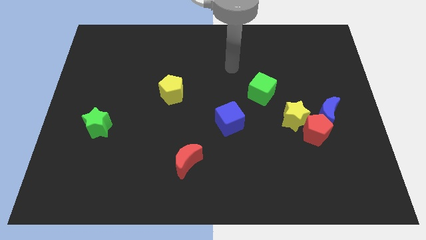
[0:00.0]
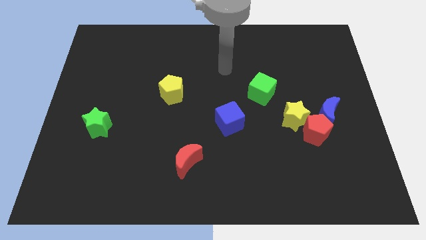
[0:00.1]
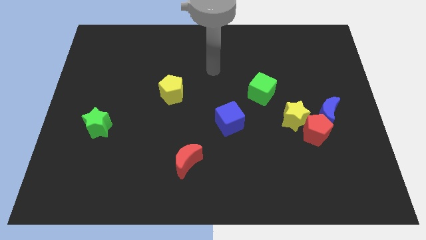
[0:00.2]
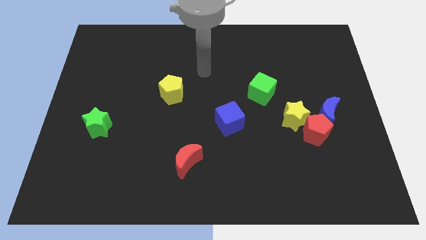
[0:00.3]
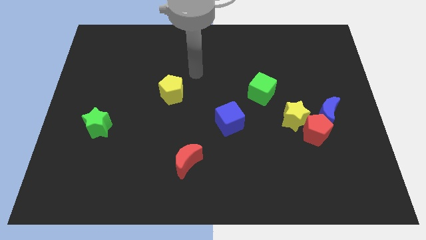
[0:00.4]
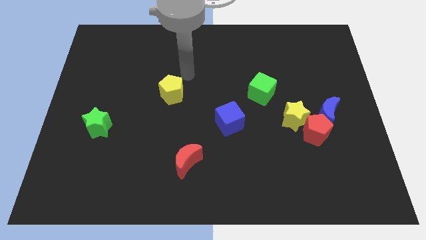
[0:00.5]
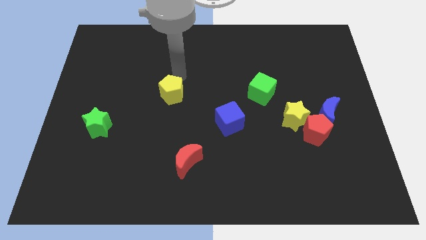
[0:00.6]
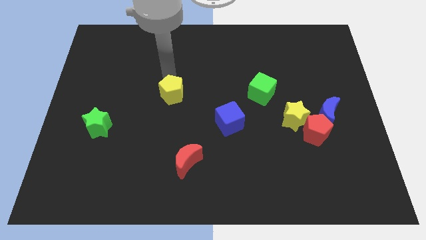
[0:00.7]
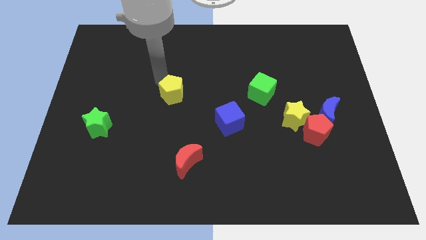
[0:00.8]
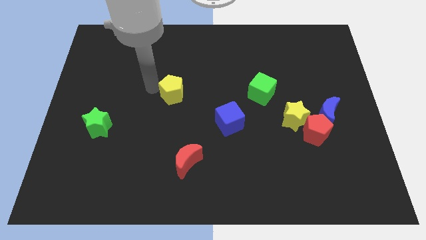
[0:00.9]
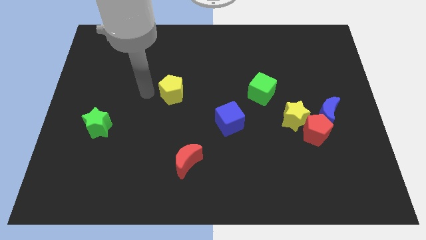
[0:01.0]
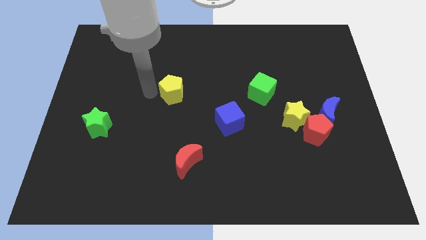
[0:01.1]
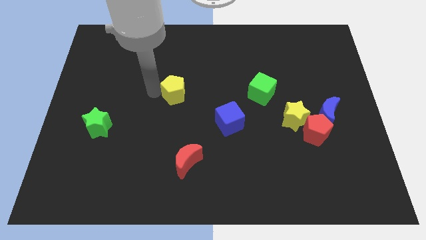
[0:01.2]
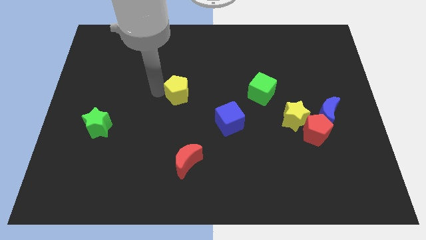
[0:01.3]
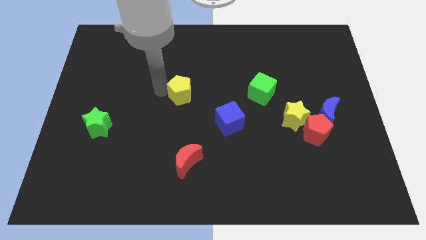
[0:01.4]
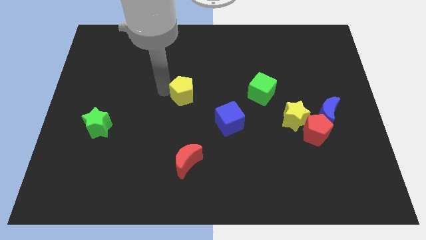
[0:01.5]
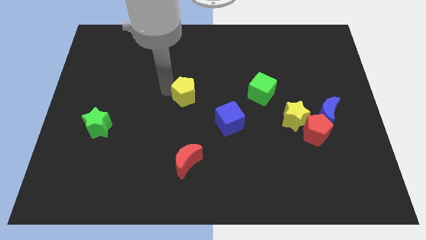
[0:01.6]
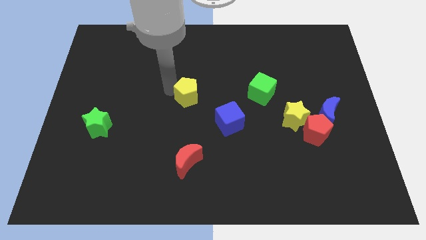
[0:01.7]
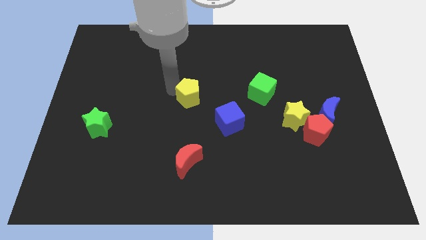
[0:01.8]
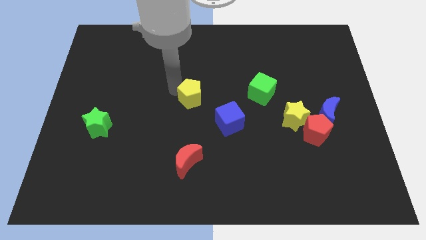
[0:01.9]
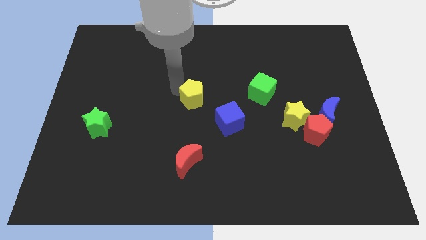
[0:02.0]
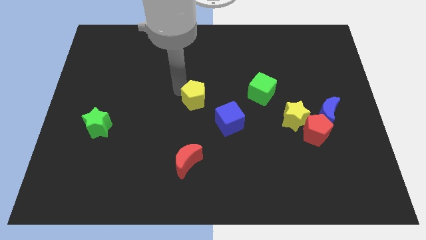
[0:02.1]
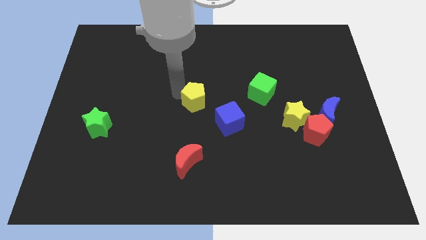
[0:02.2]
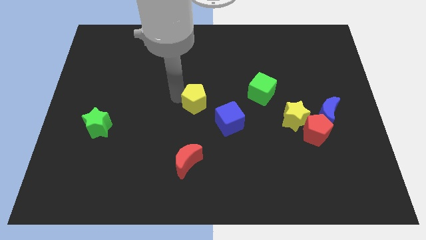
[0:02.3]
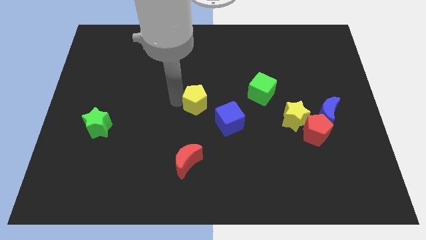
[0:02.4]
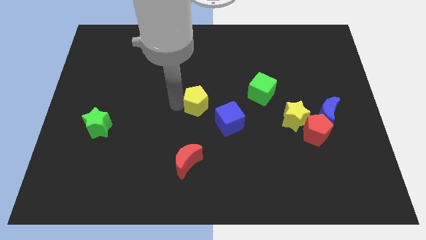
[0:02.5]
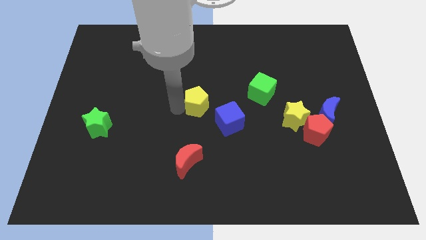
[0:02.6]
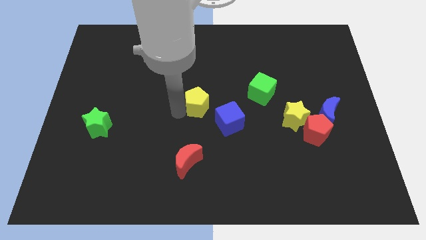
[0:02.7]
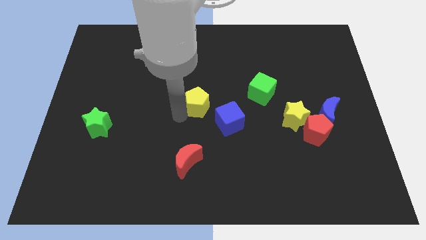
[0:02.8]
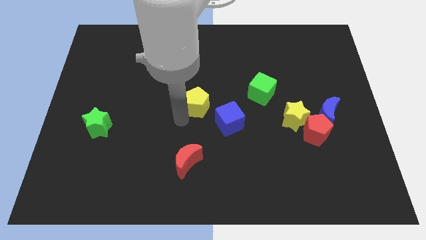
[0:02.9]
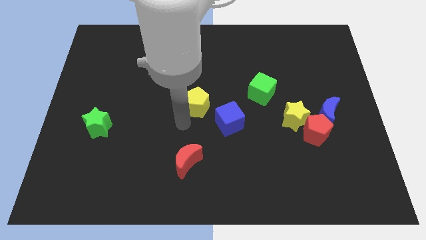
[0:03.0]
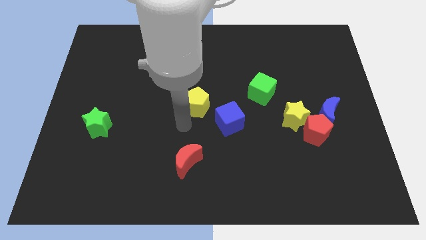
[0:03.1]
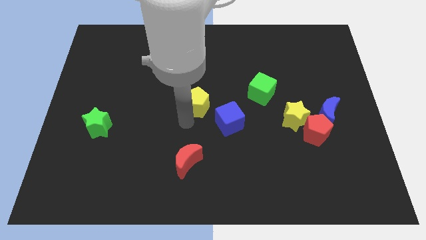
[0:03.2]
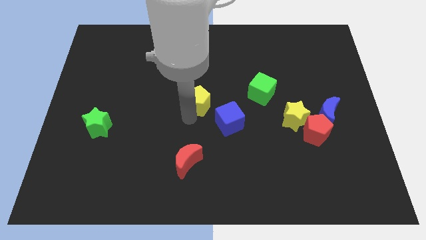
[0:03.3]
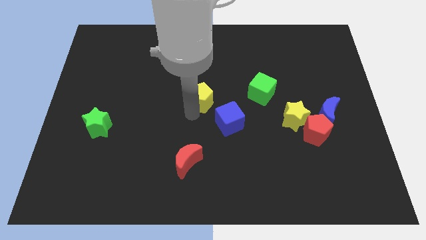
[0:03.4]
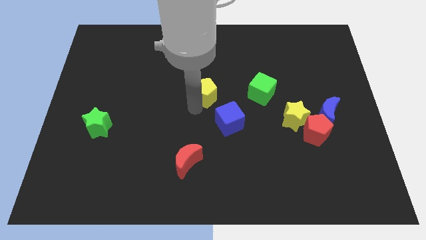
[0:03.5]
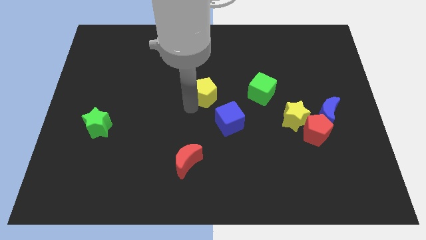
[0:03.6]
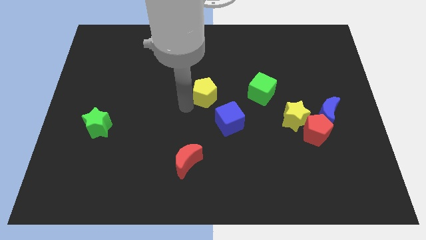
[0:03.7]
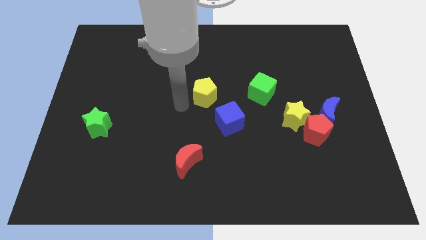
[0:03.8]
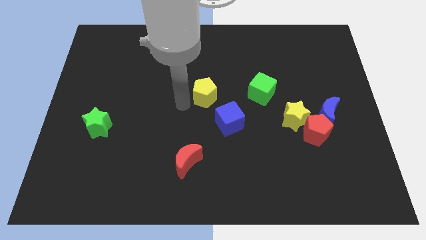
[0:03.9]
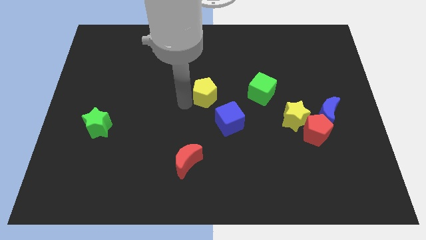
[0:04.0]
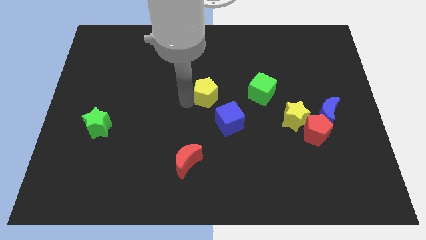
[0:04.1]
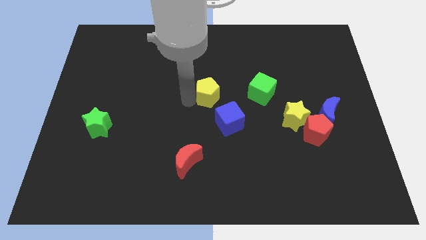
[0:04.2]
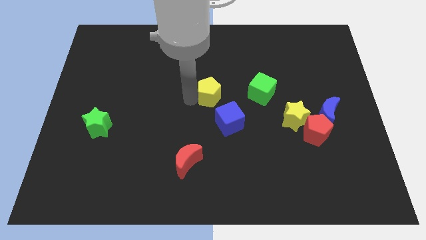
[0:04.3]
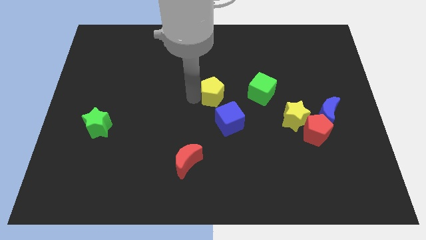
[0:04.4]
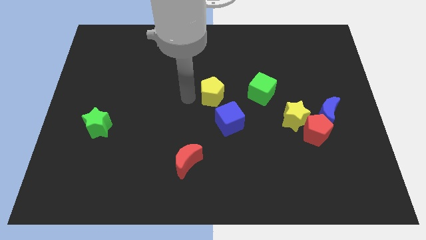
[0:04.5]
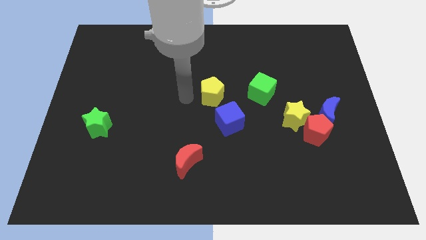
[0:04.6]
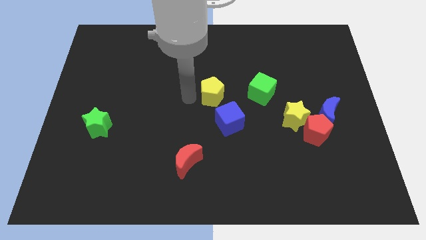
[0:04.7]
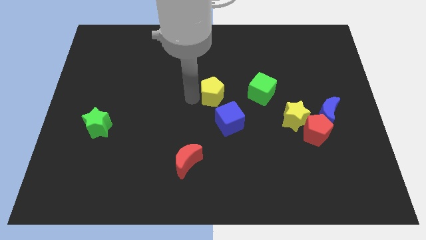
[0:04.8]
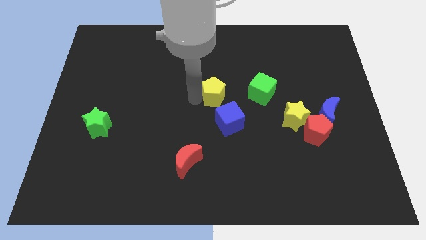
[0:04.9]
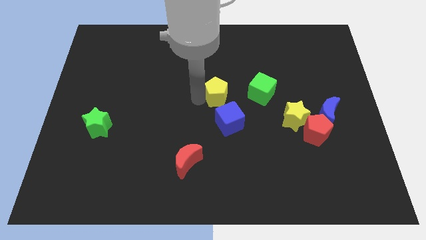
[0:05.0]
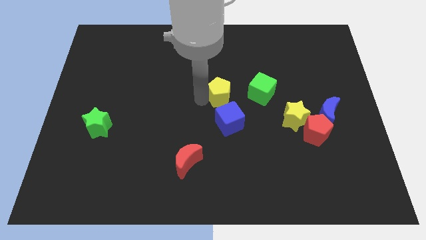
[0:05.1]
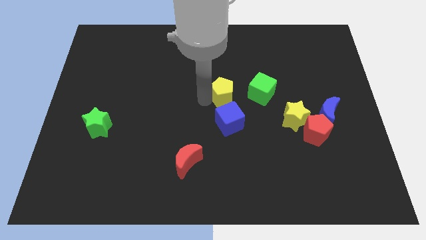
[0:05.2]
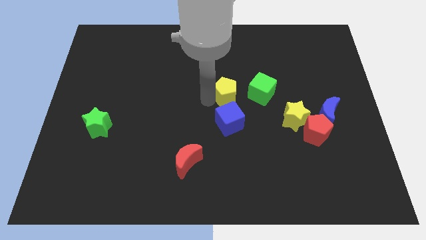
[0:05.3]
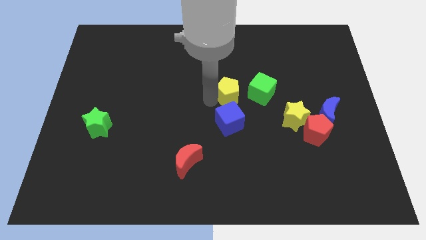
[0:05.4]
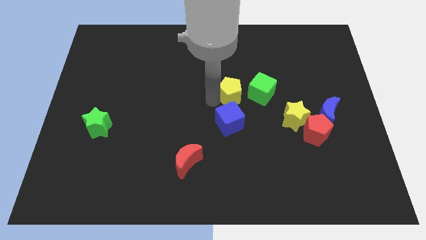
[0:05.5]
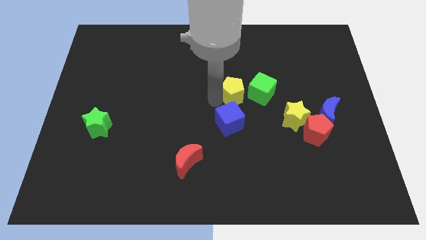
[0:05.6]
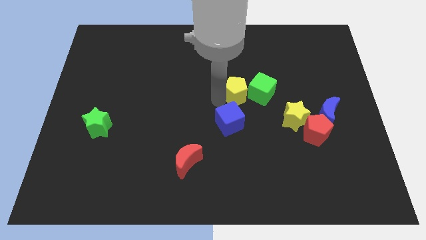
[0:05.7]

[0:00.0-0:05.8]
put the yellow pentagon next to the green cube

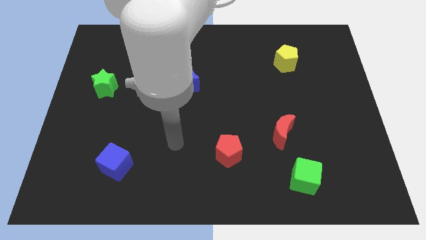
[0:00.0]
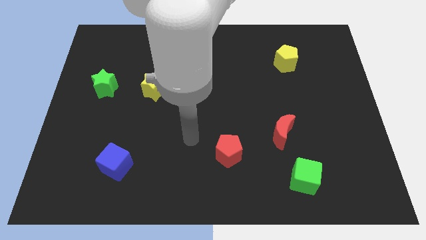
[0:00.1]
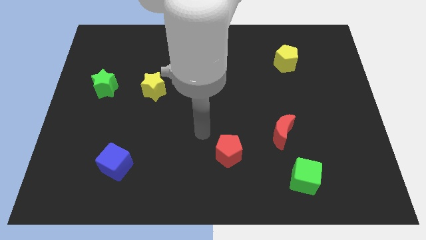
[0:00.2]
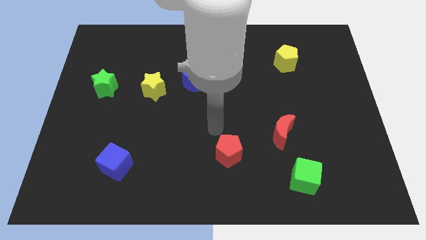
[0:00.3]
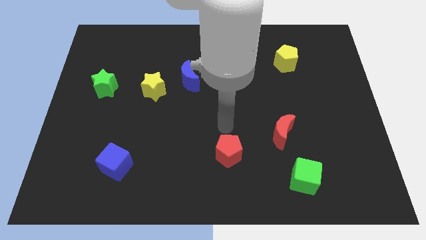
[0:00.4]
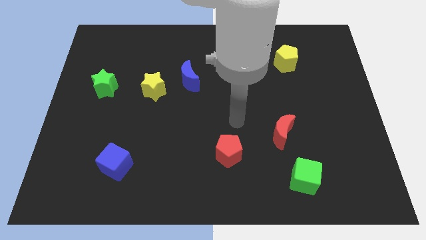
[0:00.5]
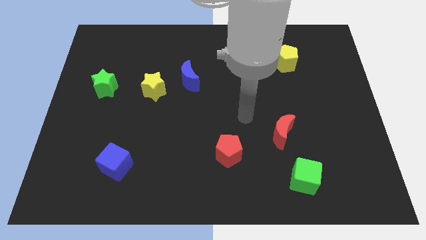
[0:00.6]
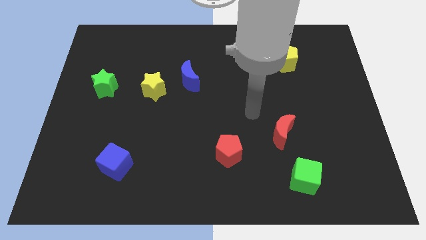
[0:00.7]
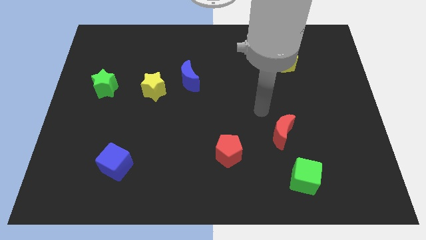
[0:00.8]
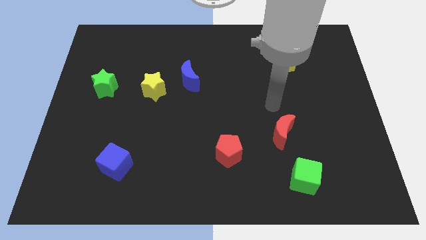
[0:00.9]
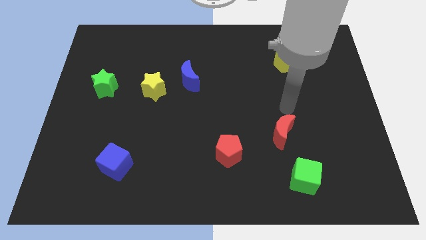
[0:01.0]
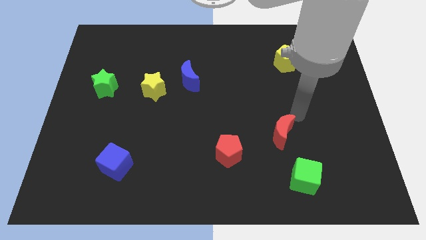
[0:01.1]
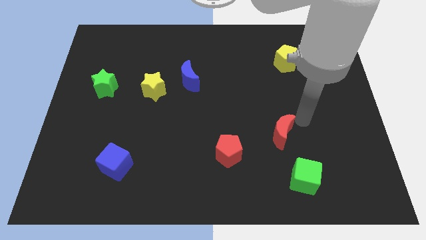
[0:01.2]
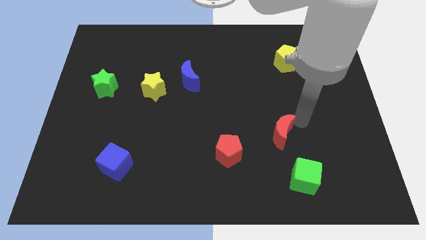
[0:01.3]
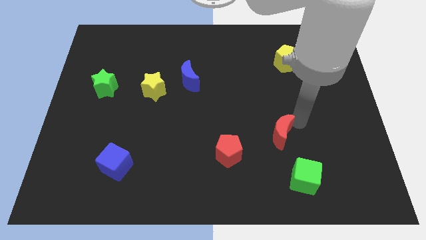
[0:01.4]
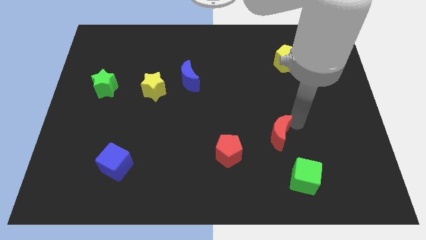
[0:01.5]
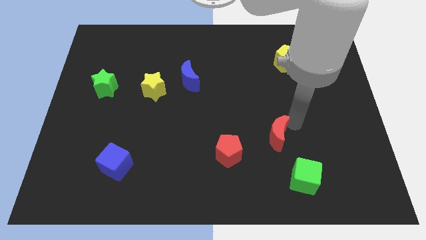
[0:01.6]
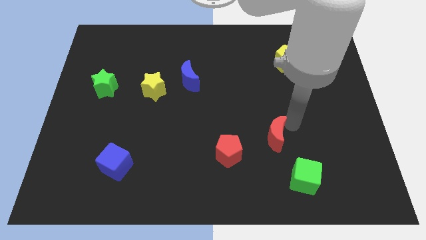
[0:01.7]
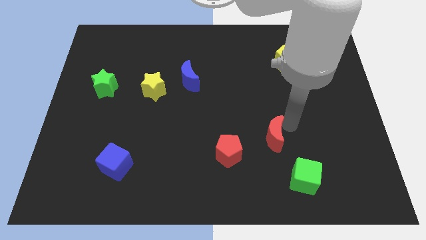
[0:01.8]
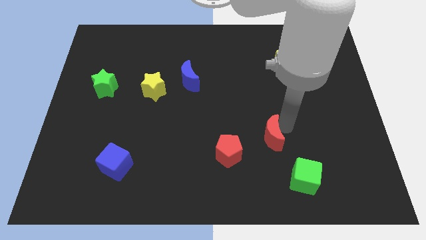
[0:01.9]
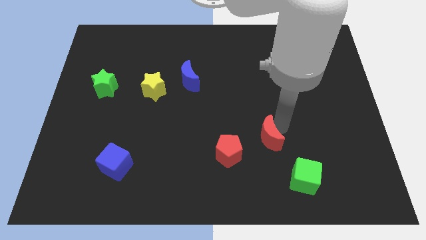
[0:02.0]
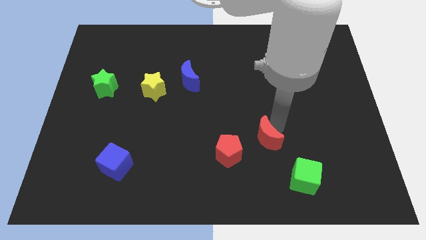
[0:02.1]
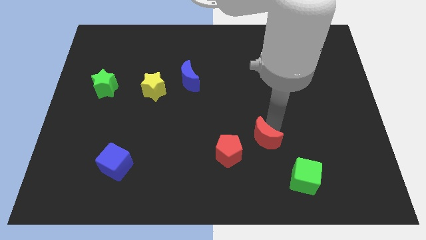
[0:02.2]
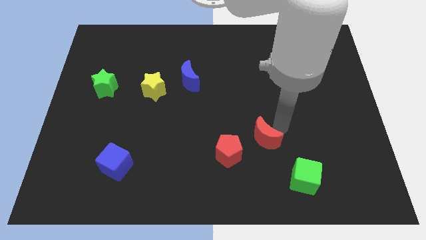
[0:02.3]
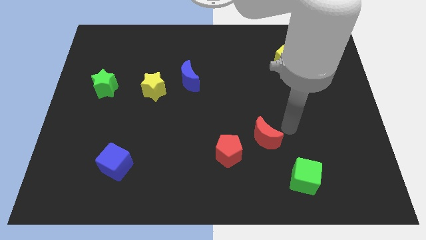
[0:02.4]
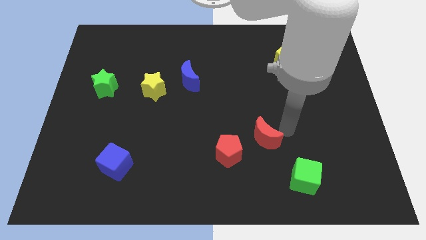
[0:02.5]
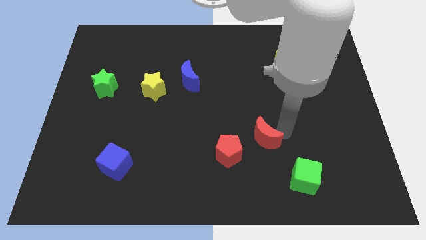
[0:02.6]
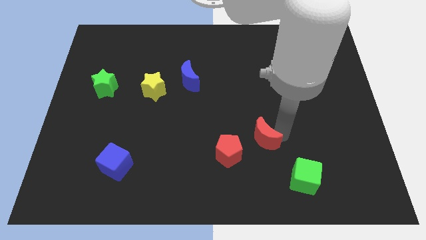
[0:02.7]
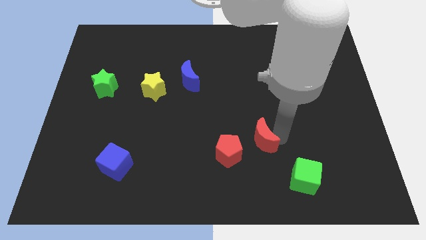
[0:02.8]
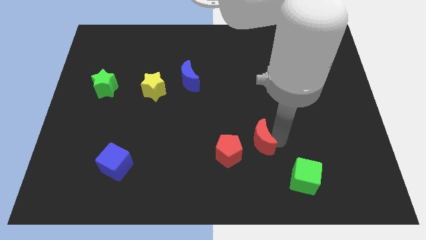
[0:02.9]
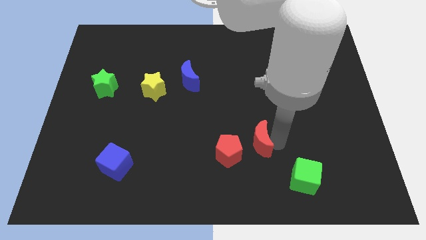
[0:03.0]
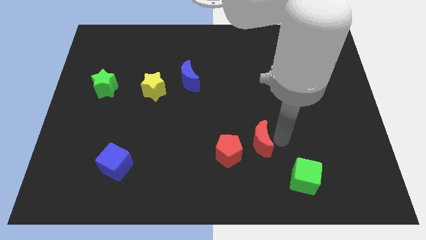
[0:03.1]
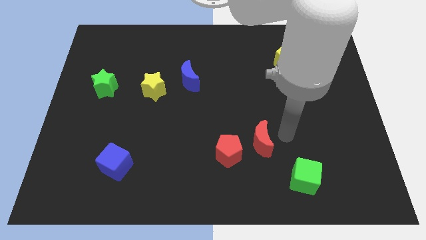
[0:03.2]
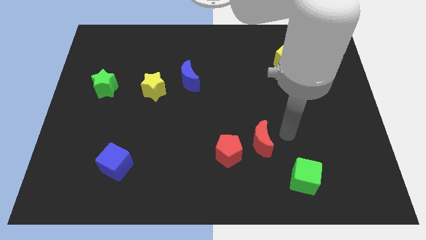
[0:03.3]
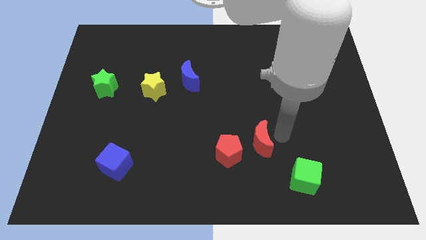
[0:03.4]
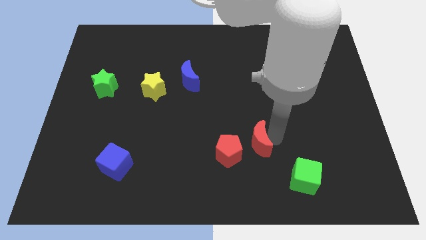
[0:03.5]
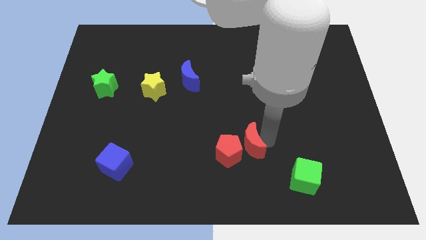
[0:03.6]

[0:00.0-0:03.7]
push the red moon next to the red pentagon
